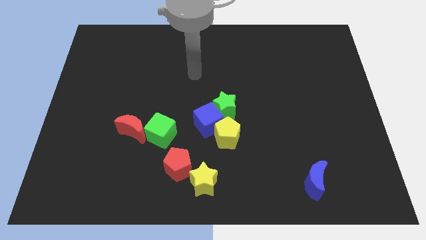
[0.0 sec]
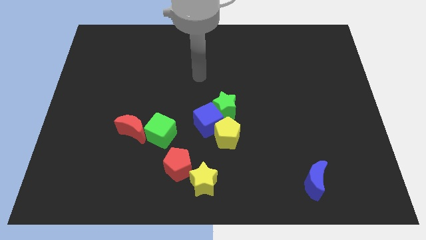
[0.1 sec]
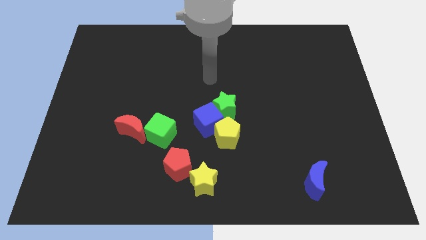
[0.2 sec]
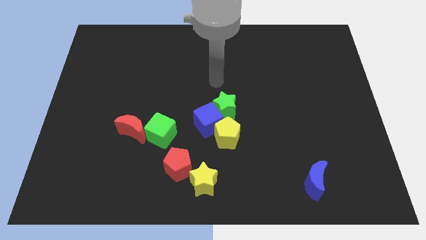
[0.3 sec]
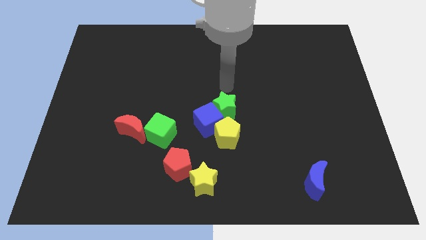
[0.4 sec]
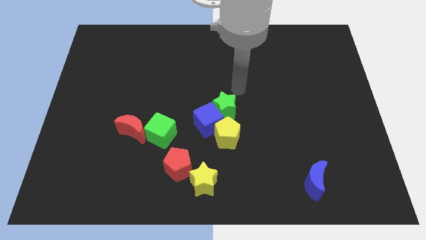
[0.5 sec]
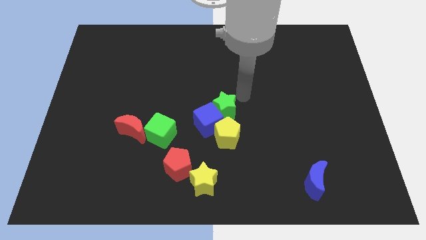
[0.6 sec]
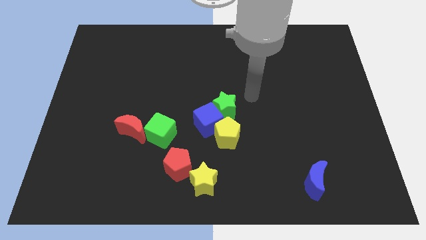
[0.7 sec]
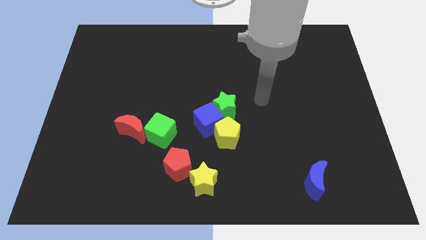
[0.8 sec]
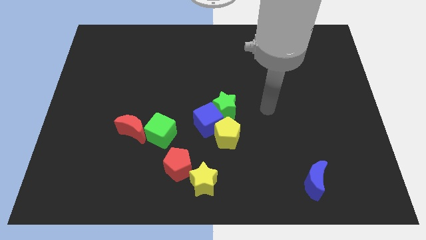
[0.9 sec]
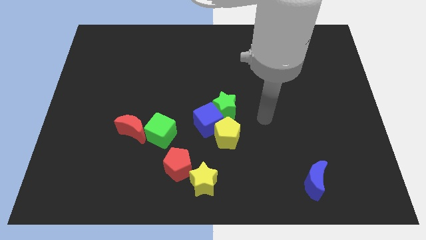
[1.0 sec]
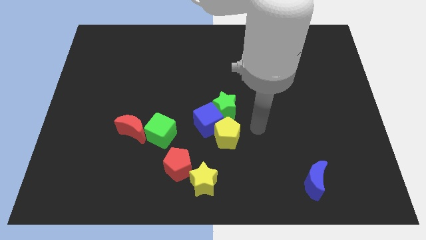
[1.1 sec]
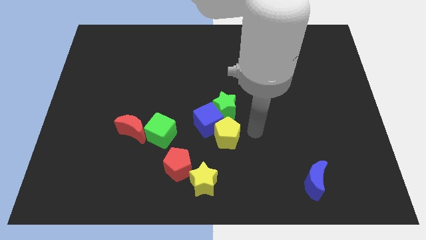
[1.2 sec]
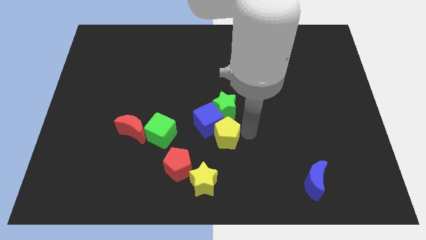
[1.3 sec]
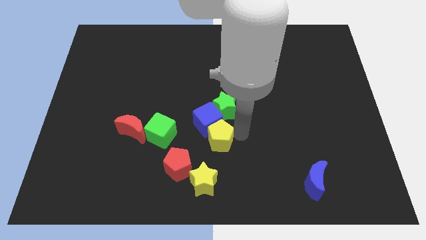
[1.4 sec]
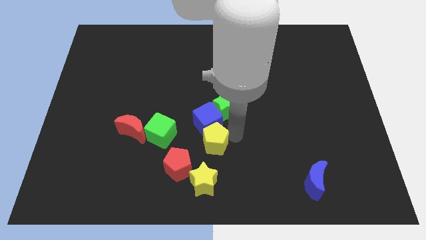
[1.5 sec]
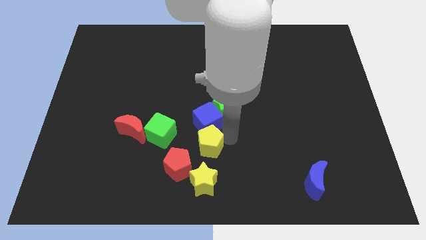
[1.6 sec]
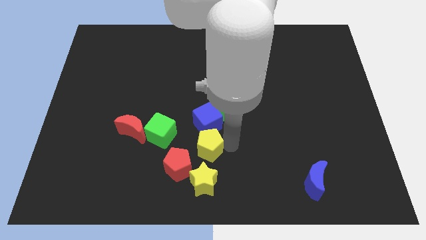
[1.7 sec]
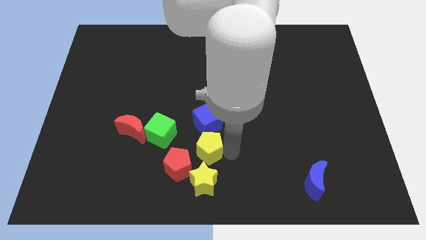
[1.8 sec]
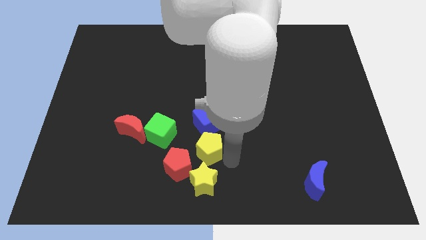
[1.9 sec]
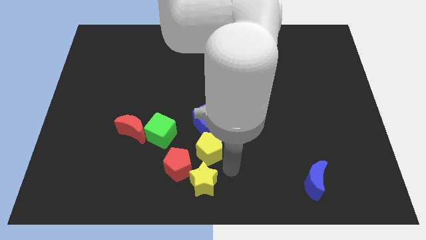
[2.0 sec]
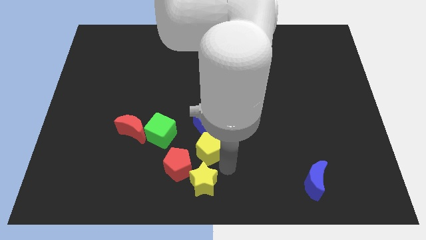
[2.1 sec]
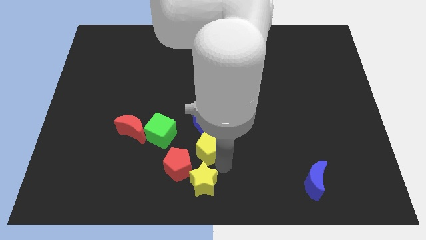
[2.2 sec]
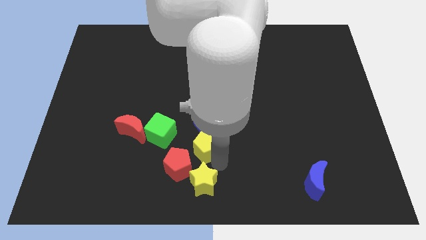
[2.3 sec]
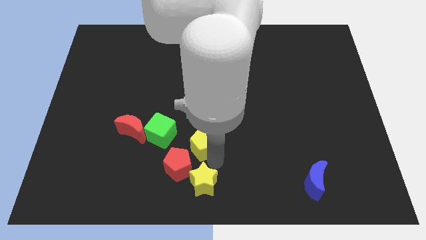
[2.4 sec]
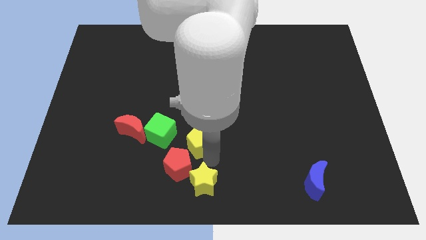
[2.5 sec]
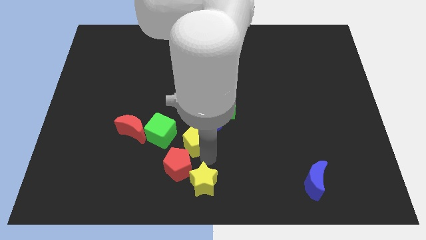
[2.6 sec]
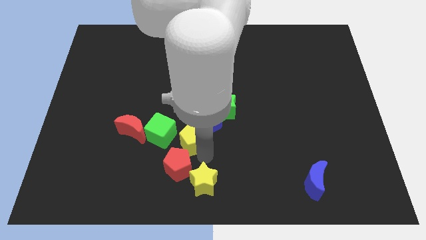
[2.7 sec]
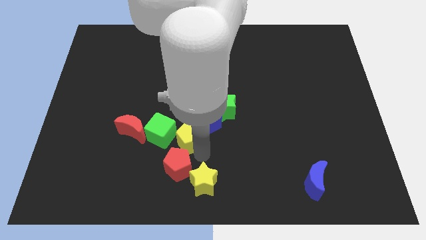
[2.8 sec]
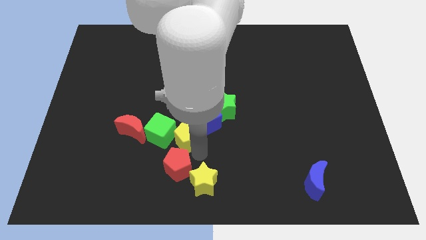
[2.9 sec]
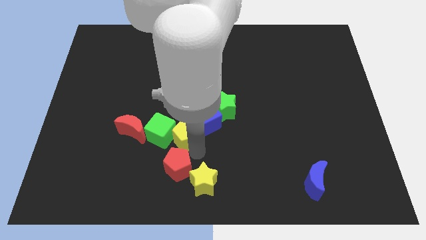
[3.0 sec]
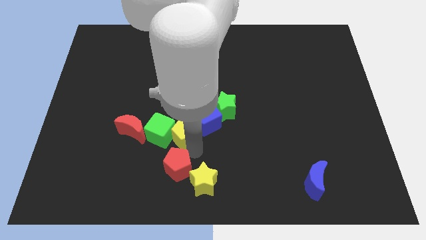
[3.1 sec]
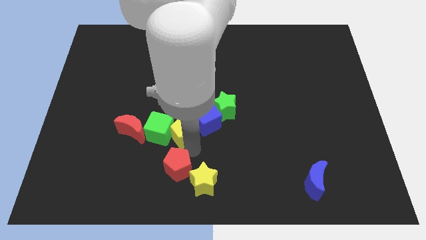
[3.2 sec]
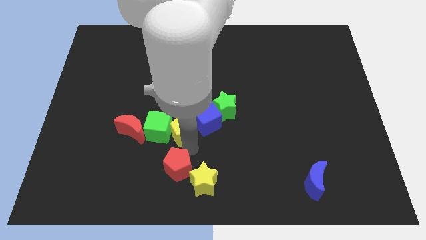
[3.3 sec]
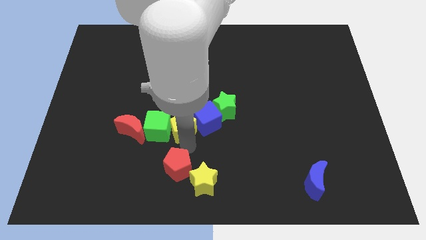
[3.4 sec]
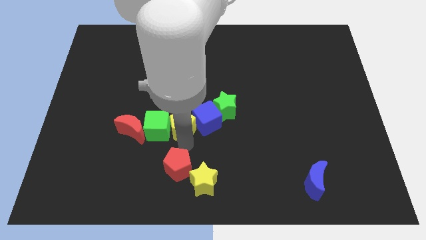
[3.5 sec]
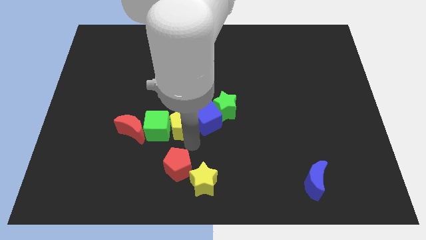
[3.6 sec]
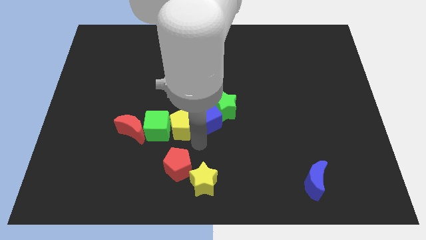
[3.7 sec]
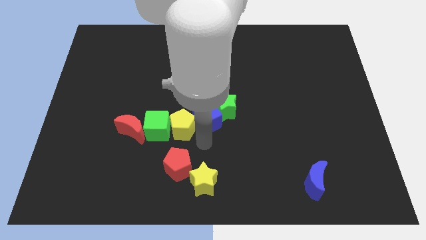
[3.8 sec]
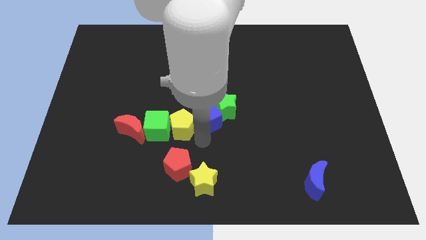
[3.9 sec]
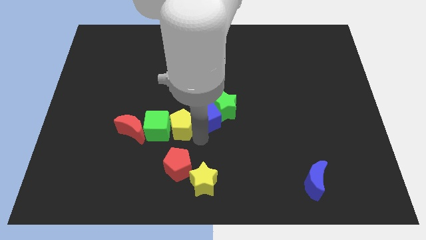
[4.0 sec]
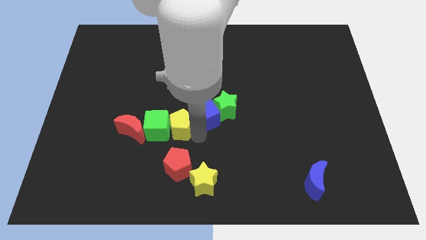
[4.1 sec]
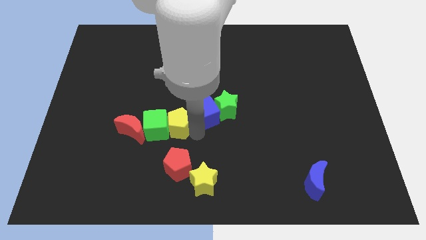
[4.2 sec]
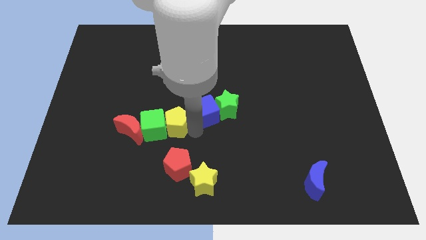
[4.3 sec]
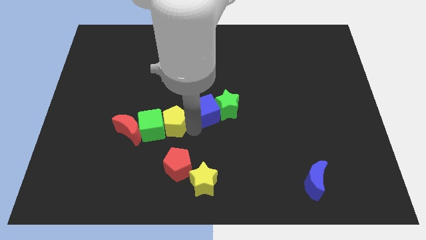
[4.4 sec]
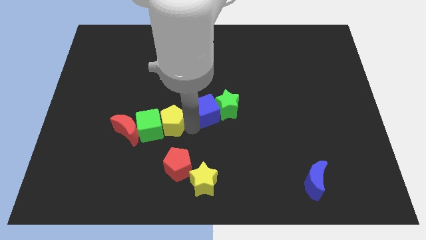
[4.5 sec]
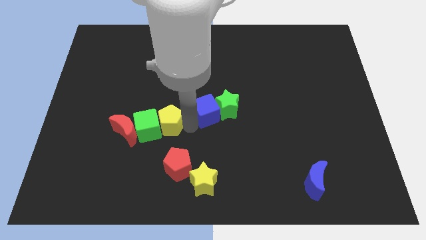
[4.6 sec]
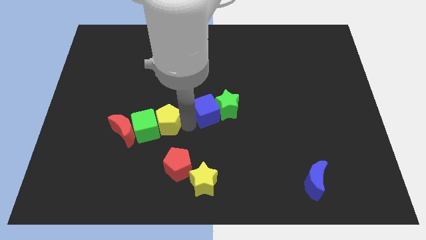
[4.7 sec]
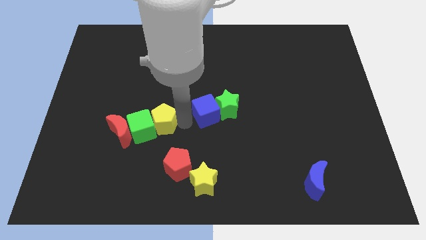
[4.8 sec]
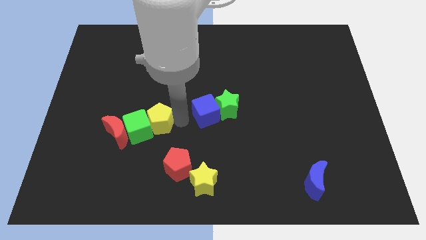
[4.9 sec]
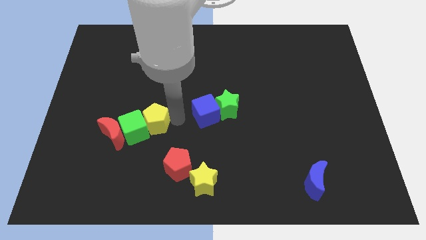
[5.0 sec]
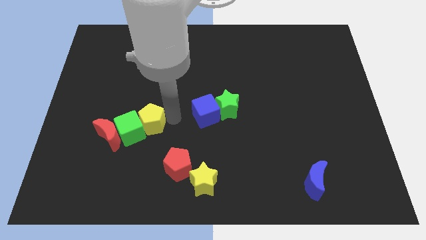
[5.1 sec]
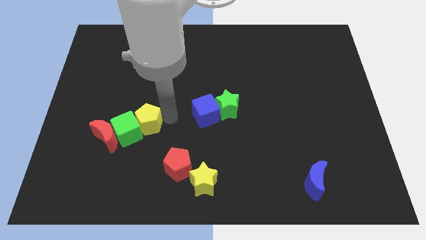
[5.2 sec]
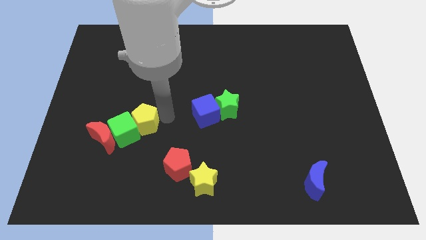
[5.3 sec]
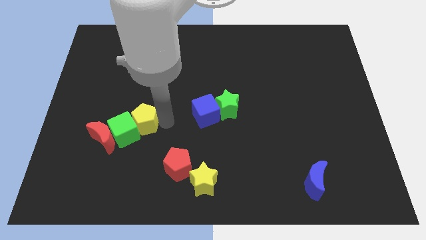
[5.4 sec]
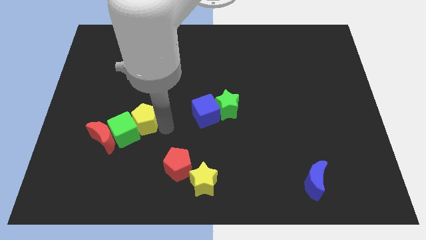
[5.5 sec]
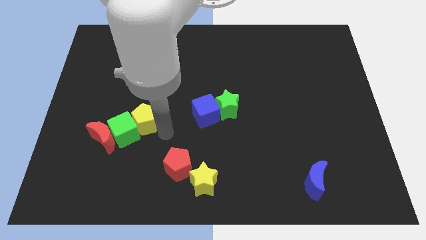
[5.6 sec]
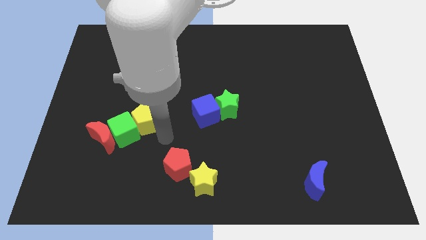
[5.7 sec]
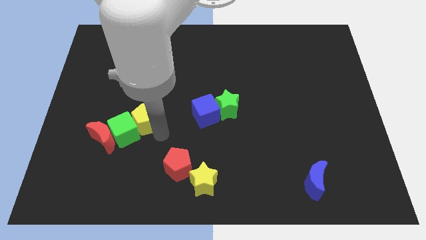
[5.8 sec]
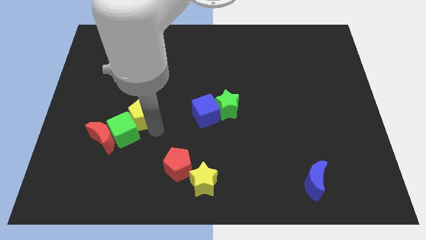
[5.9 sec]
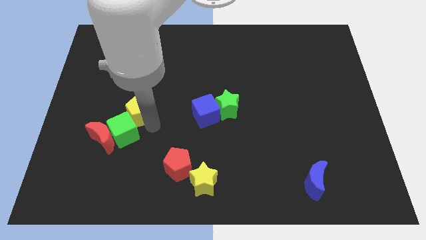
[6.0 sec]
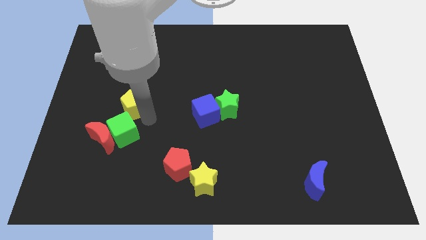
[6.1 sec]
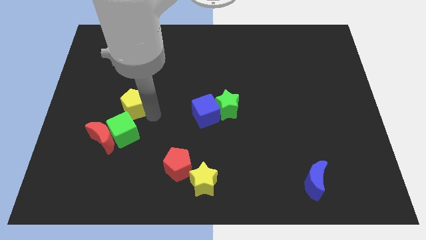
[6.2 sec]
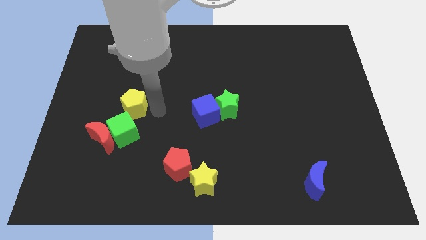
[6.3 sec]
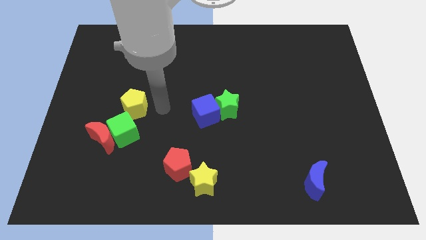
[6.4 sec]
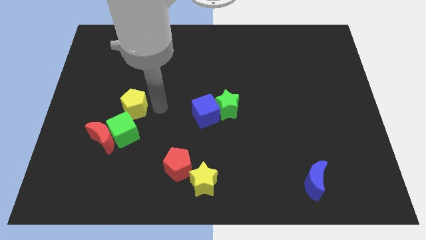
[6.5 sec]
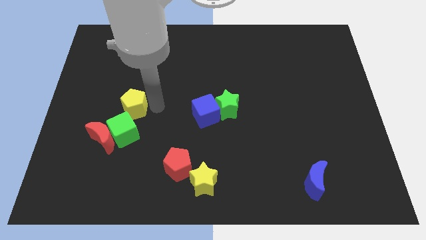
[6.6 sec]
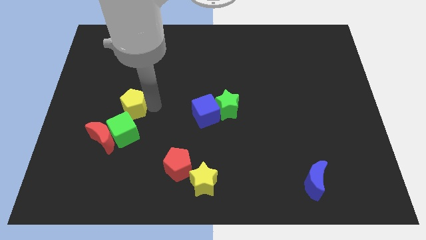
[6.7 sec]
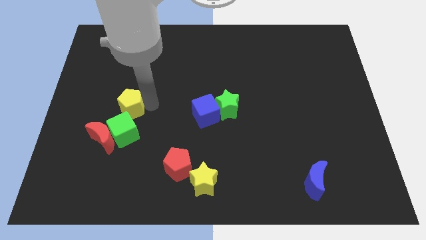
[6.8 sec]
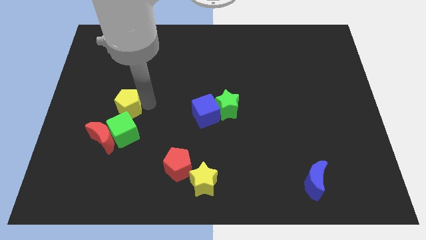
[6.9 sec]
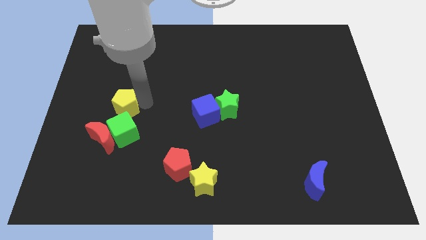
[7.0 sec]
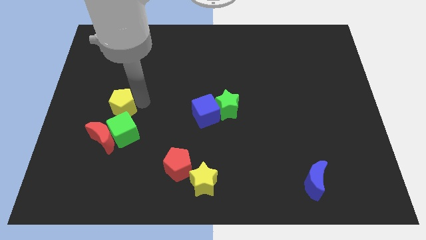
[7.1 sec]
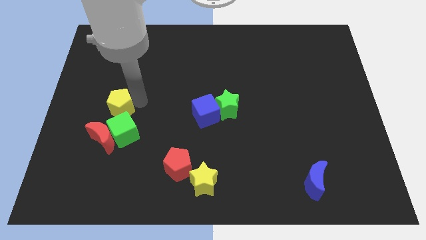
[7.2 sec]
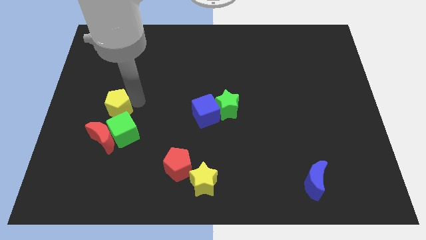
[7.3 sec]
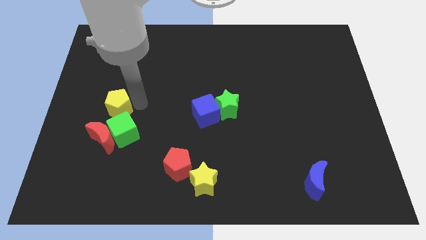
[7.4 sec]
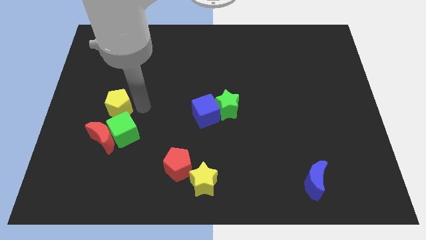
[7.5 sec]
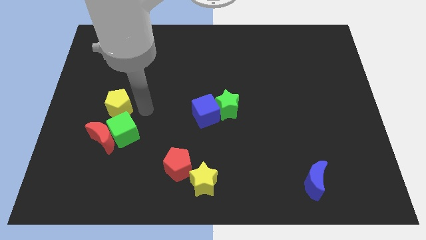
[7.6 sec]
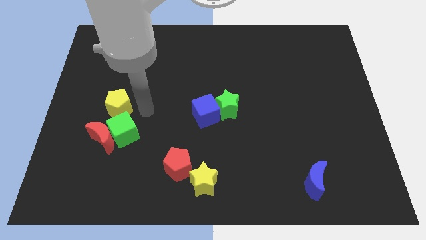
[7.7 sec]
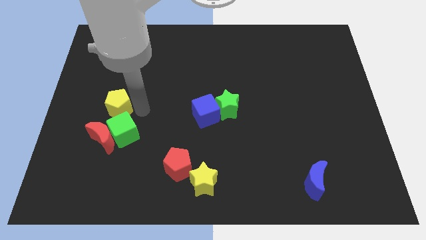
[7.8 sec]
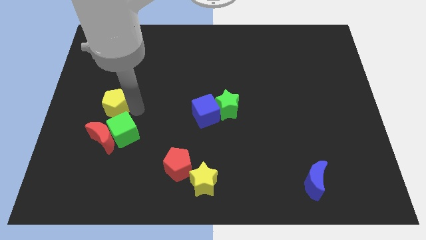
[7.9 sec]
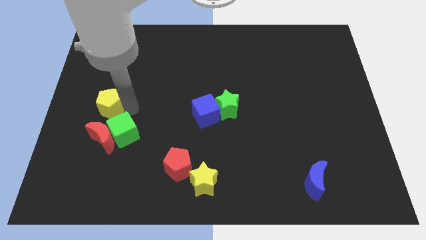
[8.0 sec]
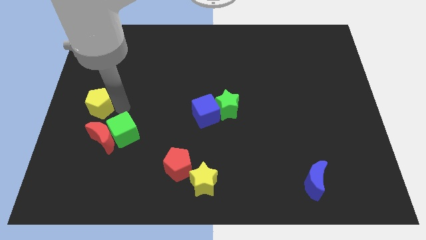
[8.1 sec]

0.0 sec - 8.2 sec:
move the yellow pentagon to the left side of the board
